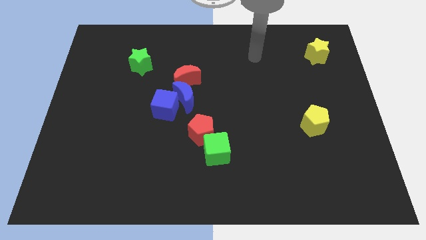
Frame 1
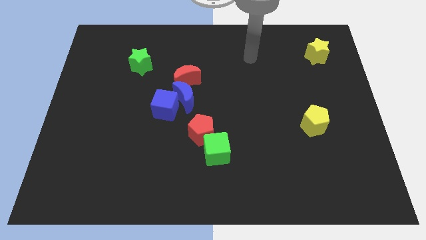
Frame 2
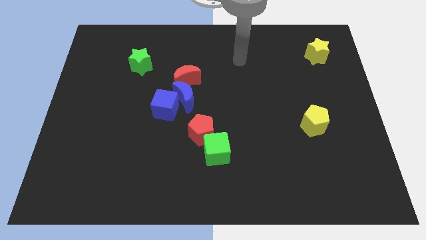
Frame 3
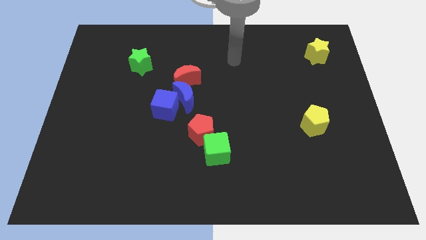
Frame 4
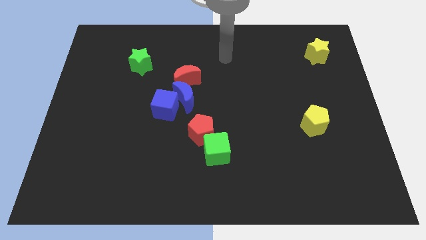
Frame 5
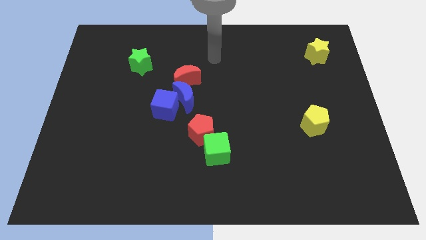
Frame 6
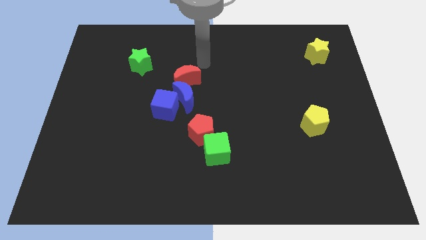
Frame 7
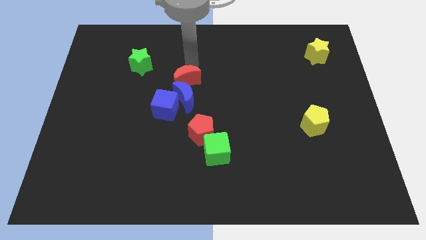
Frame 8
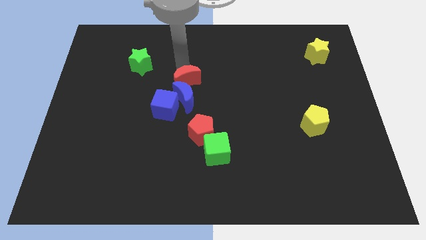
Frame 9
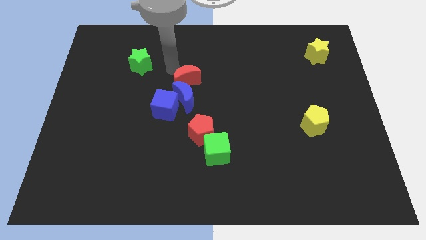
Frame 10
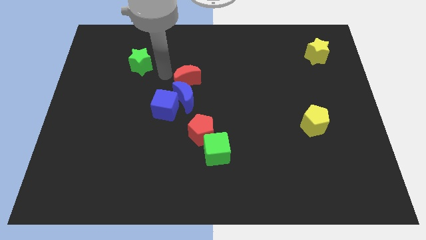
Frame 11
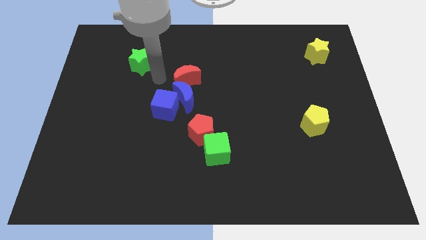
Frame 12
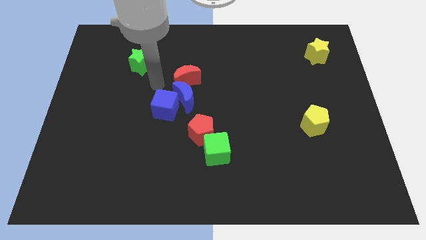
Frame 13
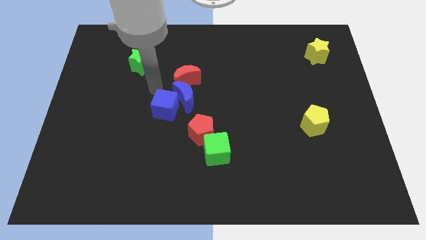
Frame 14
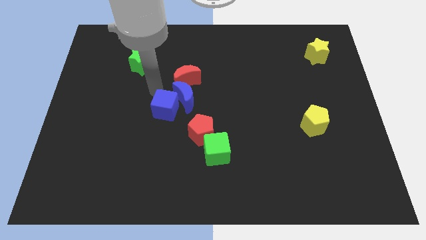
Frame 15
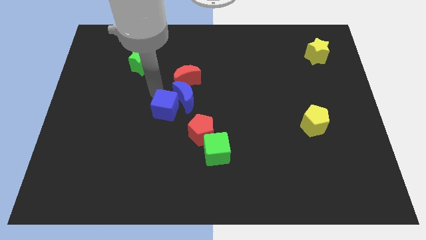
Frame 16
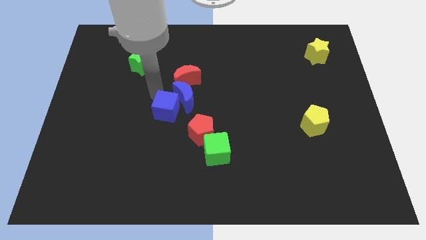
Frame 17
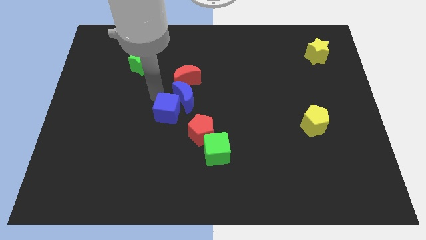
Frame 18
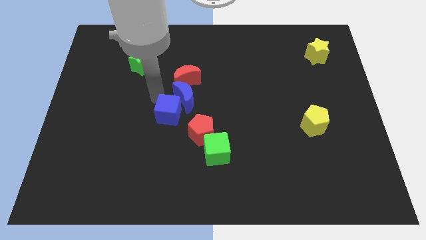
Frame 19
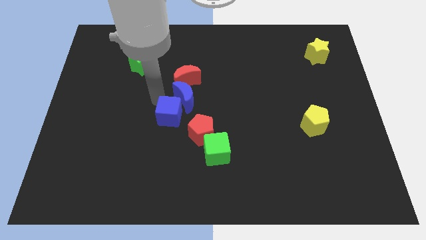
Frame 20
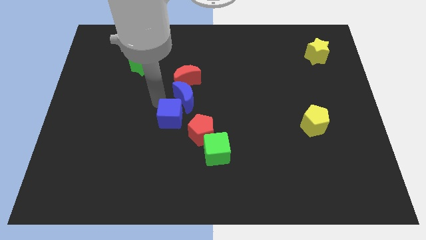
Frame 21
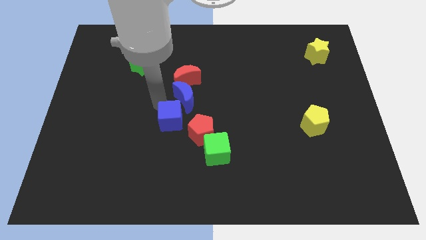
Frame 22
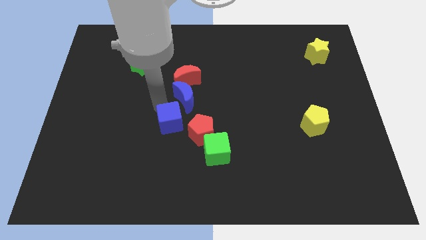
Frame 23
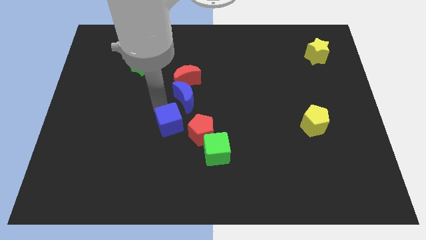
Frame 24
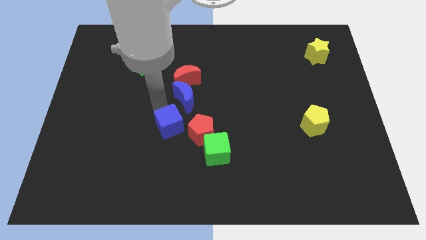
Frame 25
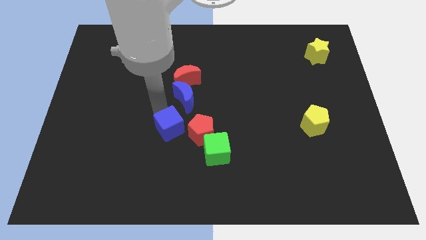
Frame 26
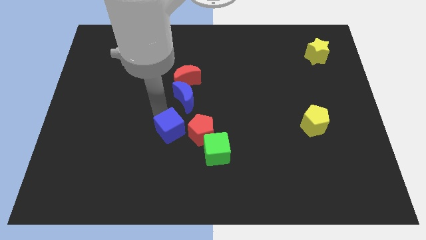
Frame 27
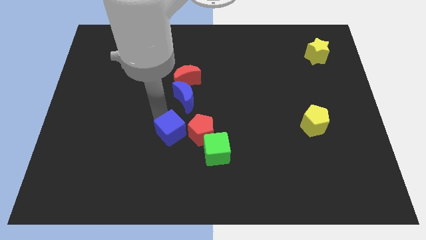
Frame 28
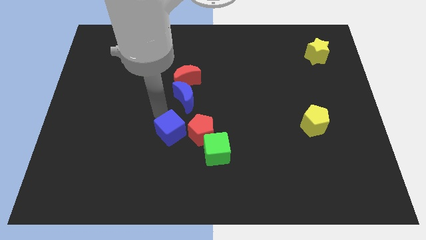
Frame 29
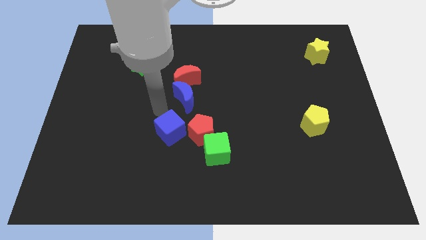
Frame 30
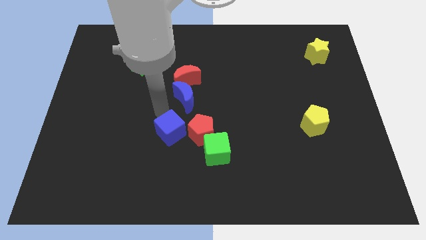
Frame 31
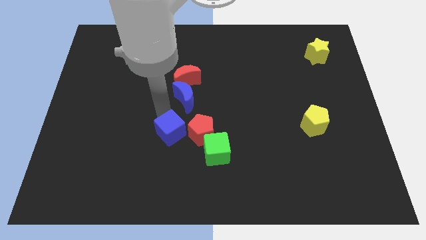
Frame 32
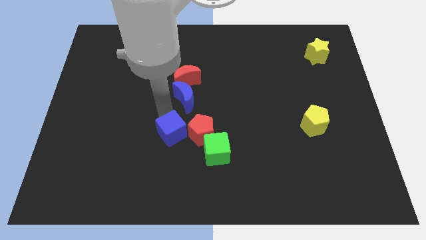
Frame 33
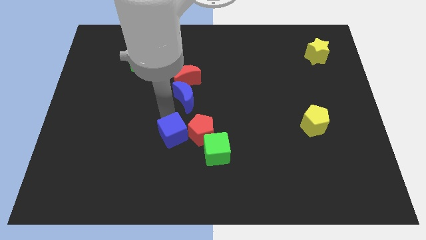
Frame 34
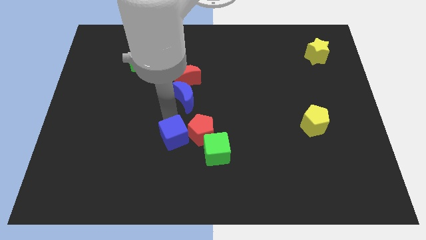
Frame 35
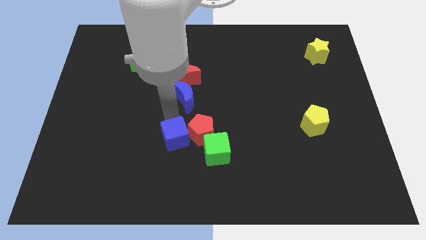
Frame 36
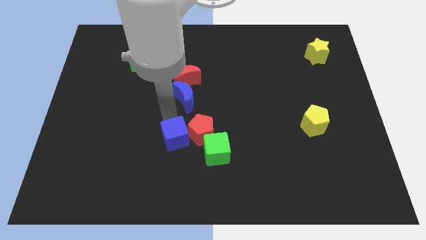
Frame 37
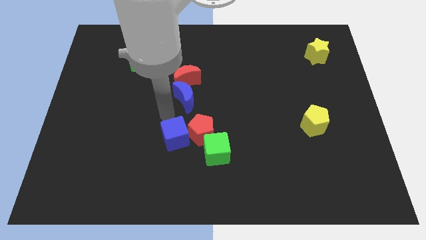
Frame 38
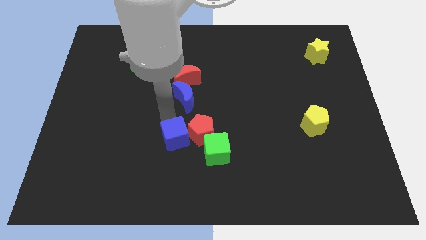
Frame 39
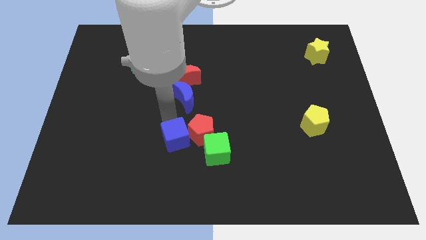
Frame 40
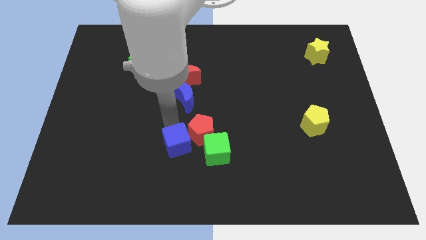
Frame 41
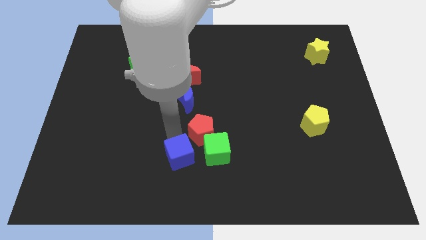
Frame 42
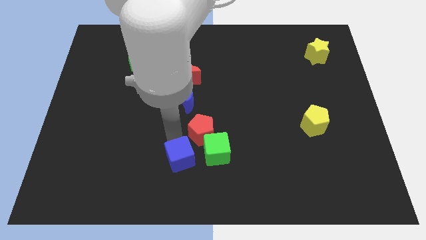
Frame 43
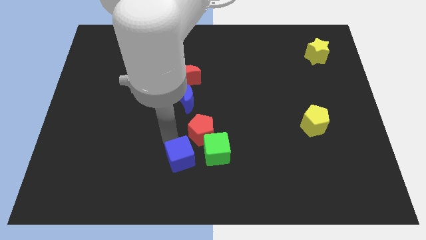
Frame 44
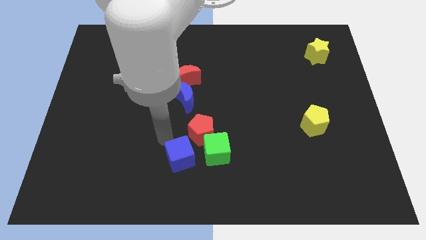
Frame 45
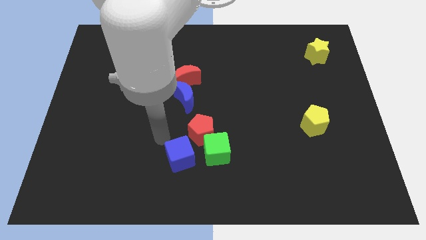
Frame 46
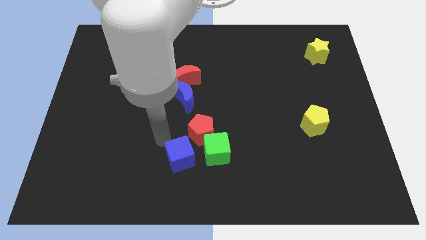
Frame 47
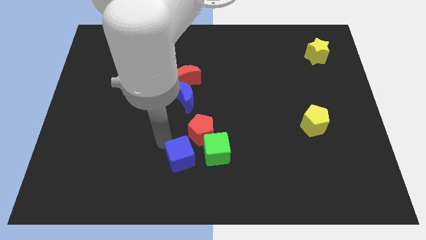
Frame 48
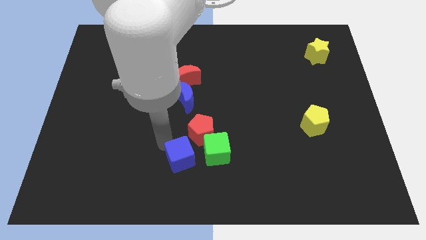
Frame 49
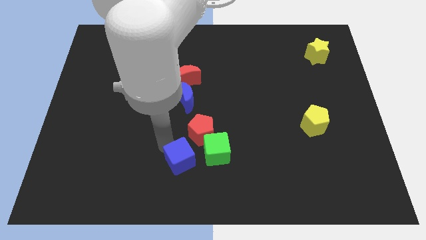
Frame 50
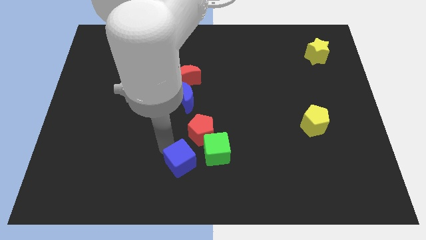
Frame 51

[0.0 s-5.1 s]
put the blue cube to the bottom side

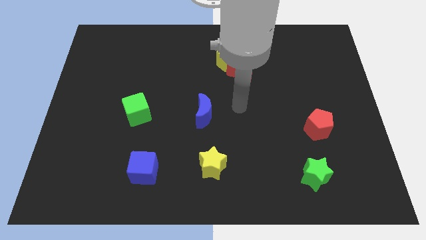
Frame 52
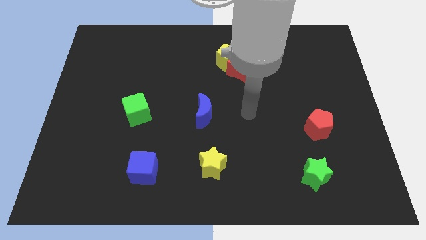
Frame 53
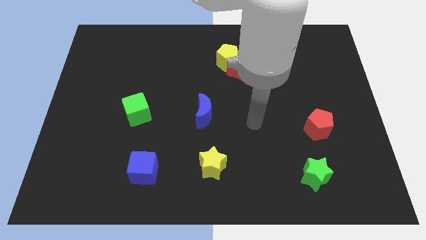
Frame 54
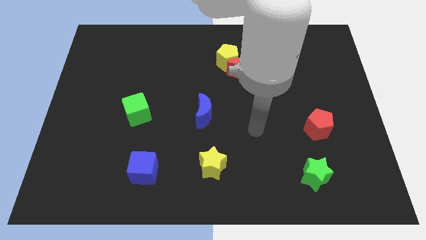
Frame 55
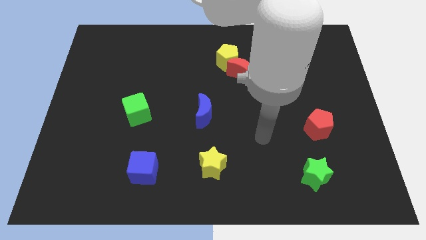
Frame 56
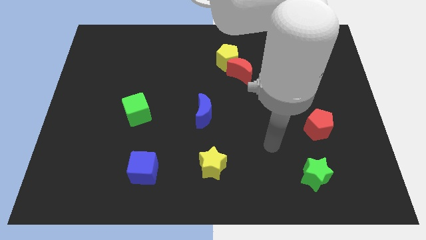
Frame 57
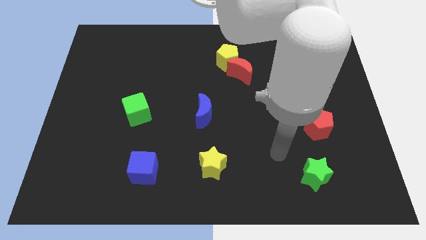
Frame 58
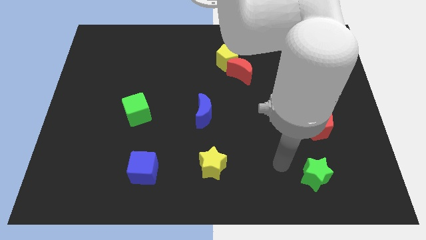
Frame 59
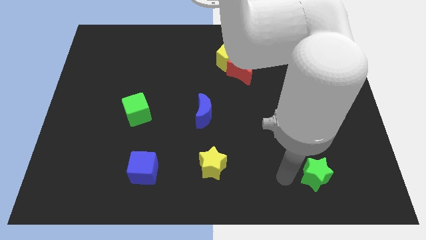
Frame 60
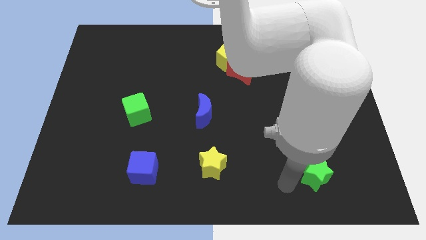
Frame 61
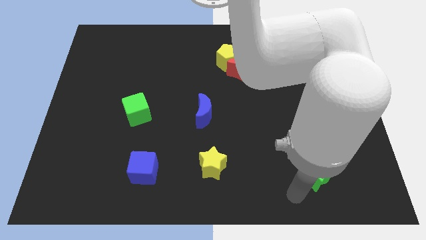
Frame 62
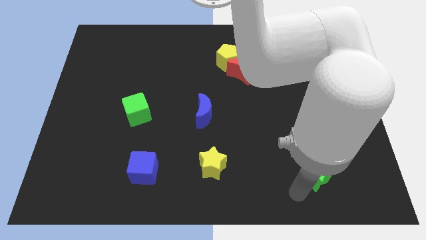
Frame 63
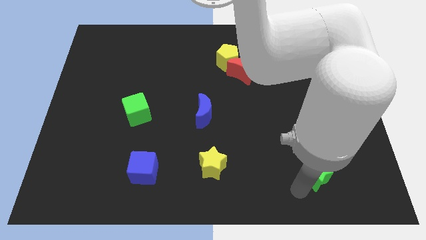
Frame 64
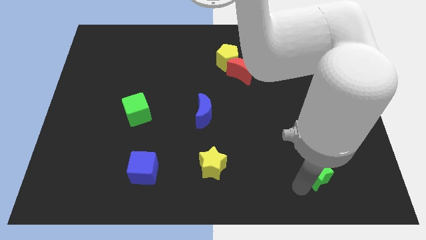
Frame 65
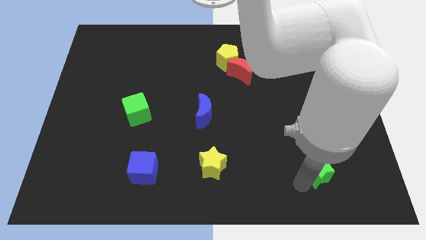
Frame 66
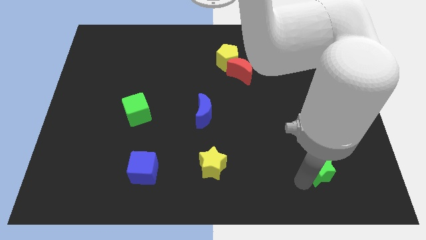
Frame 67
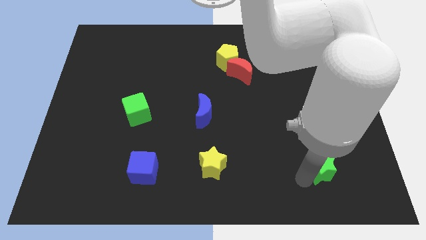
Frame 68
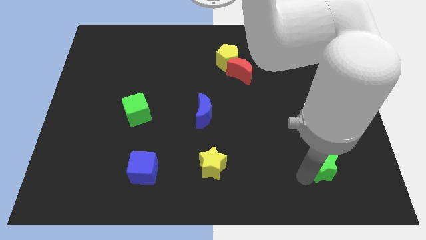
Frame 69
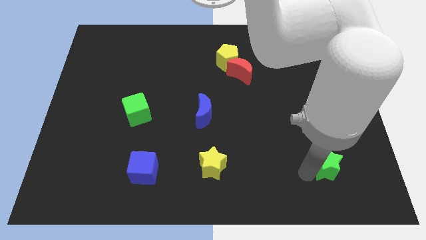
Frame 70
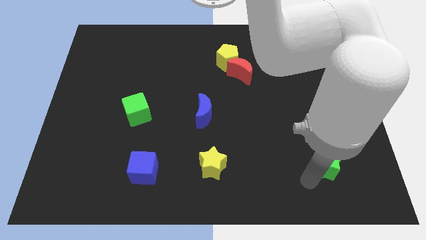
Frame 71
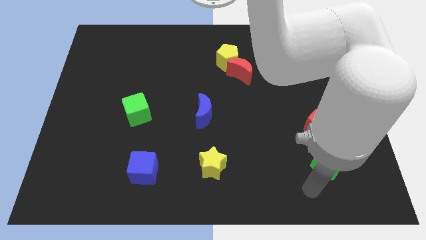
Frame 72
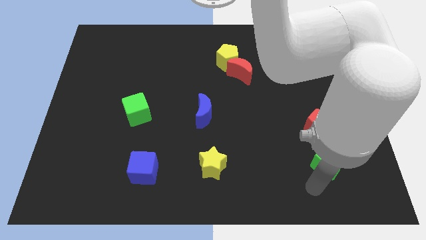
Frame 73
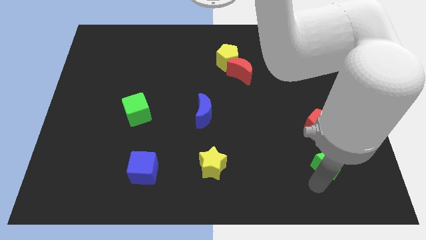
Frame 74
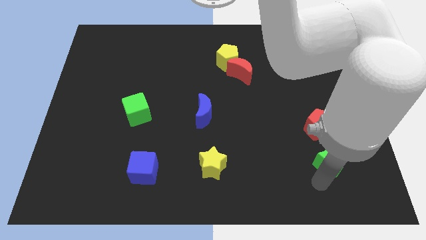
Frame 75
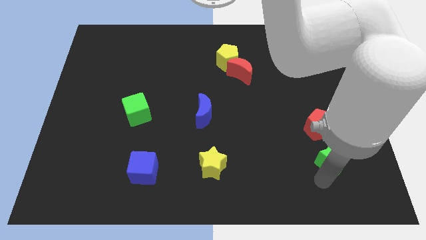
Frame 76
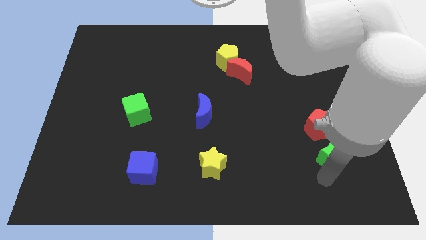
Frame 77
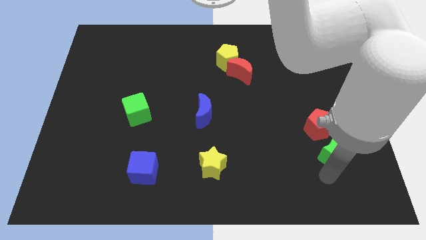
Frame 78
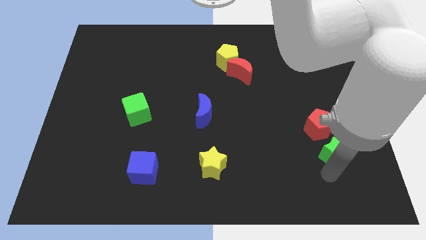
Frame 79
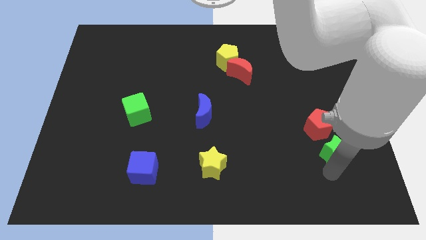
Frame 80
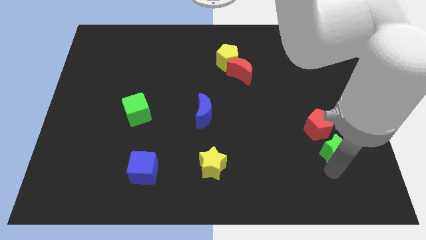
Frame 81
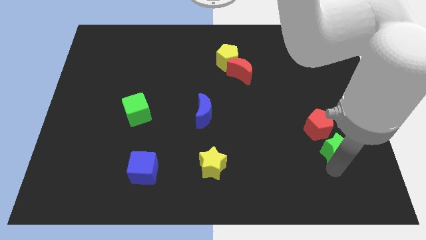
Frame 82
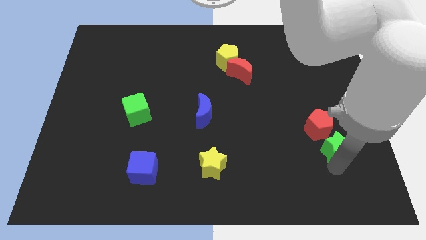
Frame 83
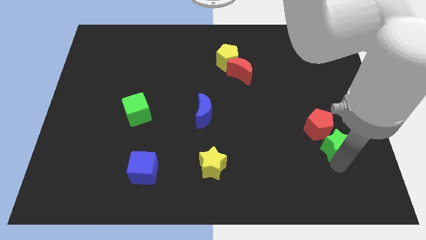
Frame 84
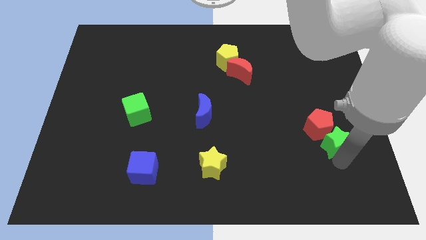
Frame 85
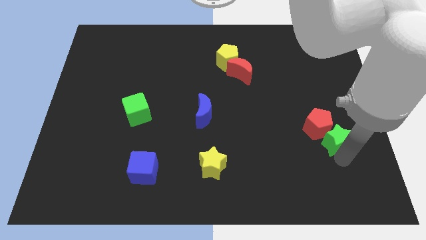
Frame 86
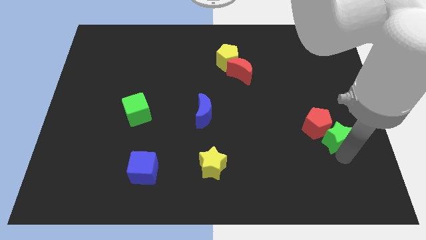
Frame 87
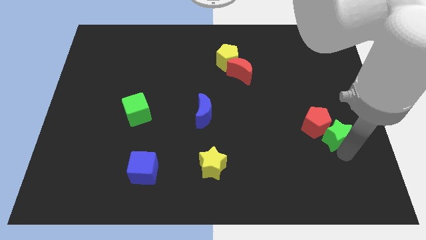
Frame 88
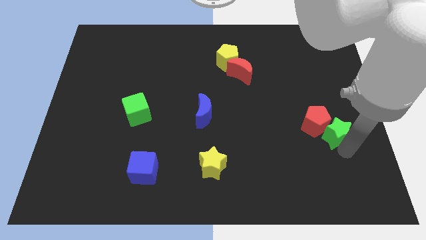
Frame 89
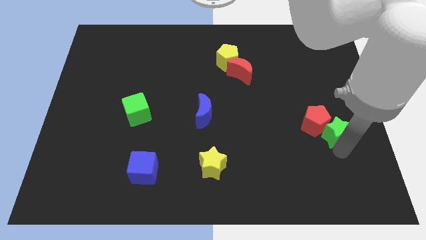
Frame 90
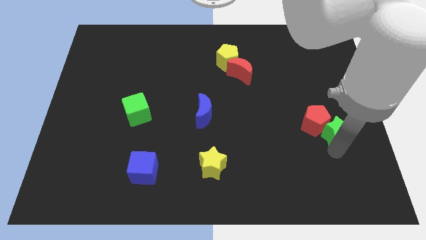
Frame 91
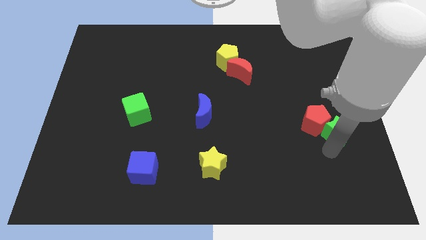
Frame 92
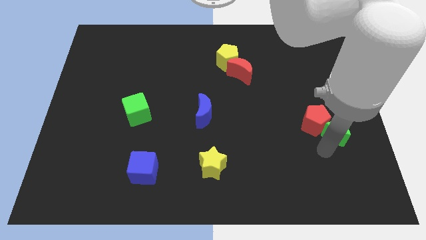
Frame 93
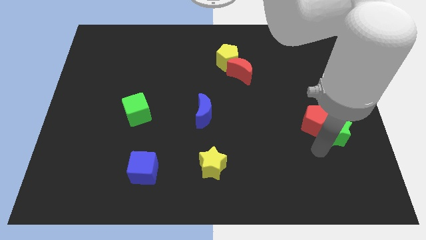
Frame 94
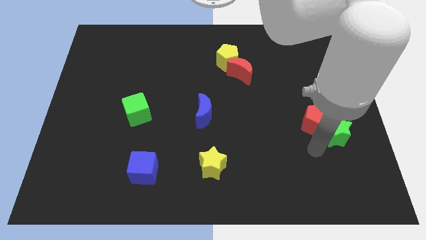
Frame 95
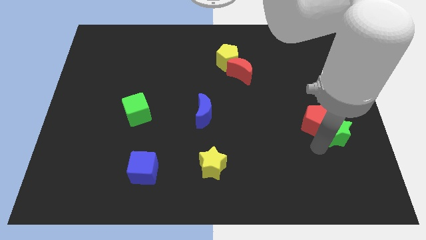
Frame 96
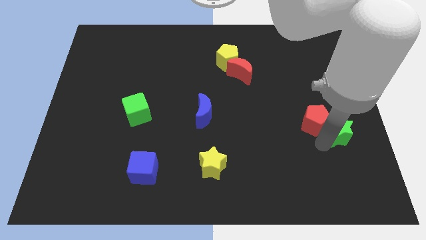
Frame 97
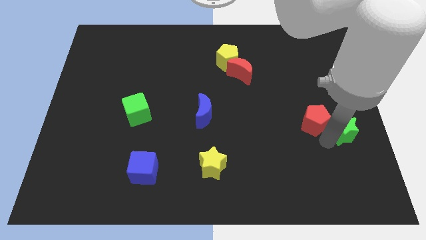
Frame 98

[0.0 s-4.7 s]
move the green star to the right side
